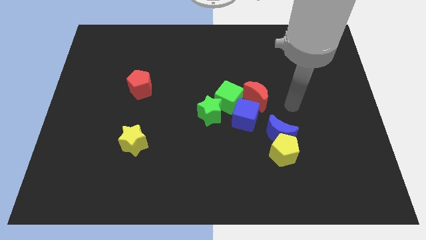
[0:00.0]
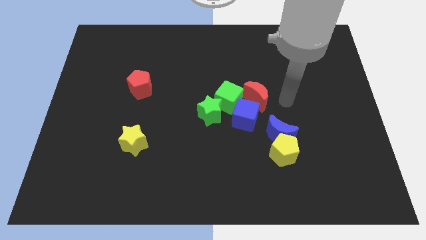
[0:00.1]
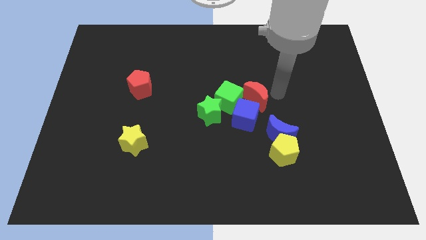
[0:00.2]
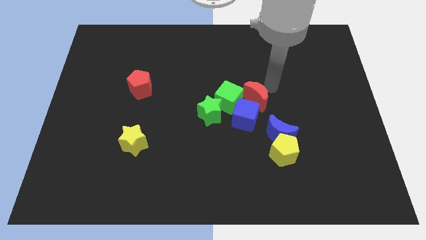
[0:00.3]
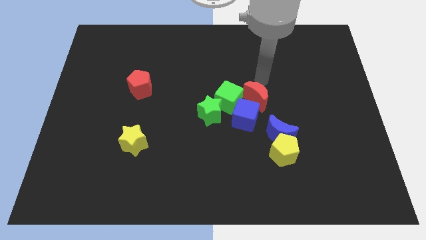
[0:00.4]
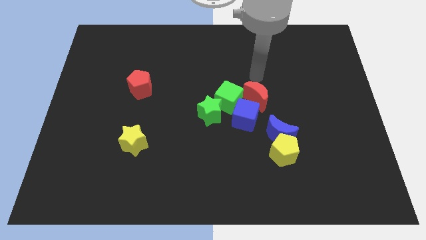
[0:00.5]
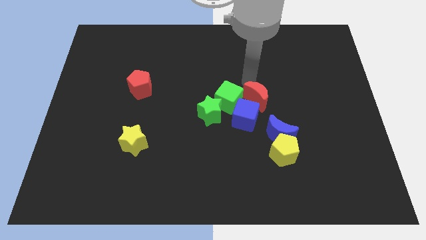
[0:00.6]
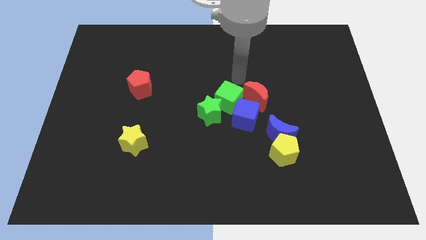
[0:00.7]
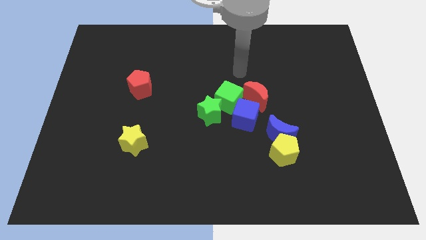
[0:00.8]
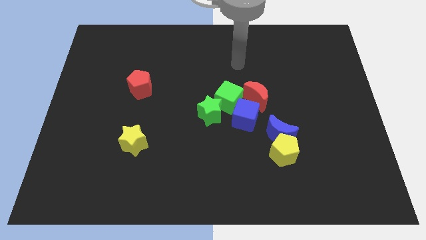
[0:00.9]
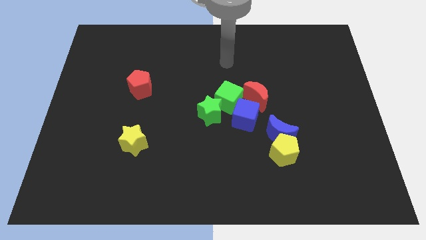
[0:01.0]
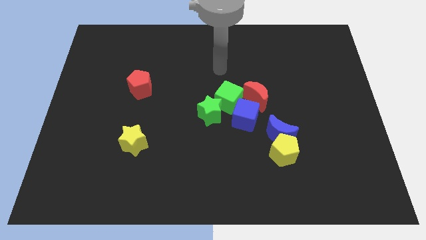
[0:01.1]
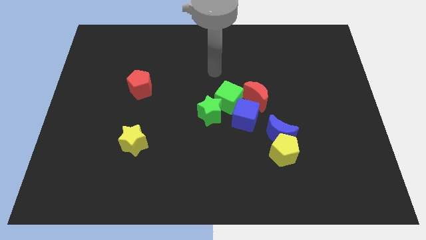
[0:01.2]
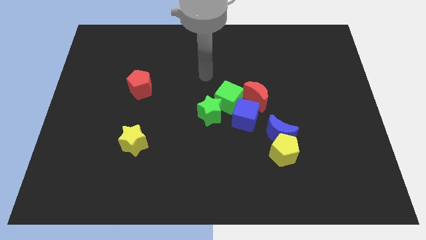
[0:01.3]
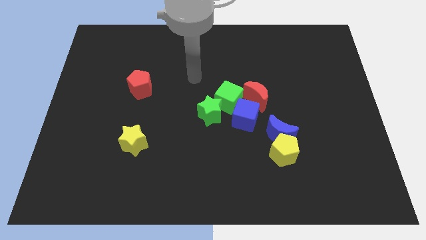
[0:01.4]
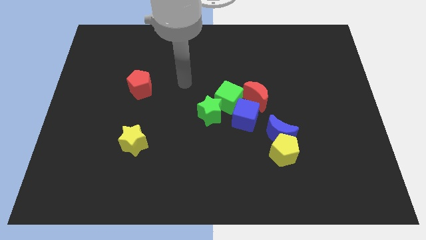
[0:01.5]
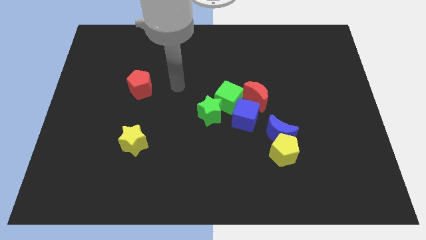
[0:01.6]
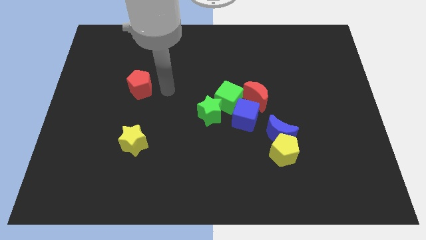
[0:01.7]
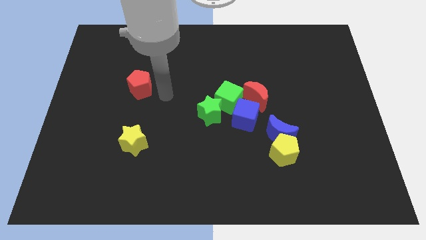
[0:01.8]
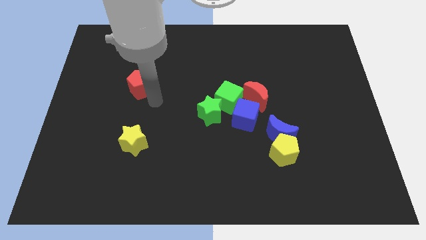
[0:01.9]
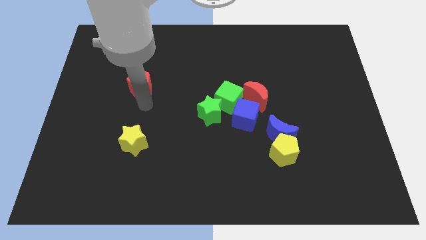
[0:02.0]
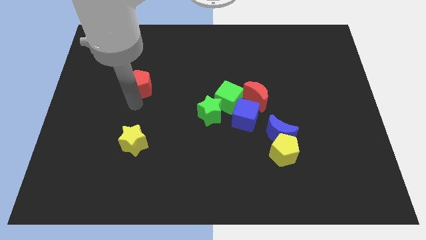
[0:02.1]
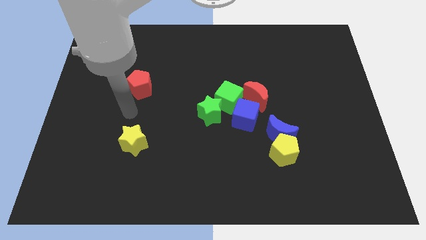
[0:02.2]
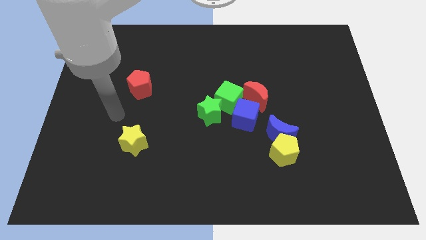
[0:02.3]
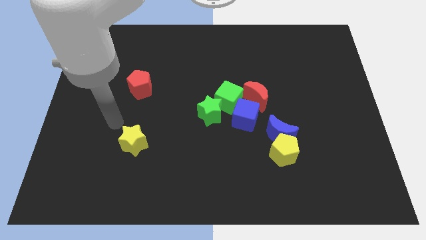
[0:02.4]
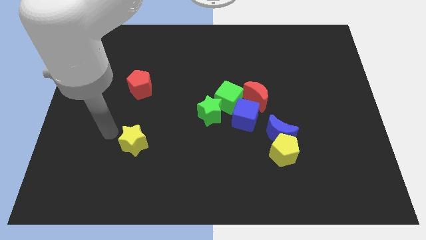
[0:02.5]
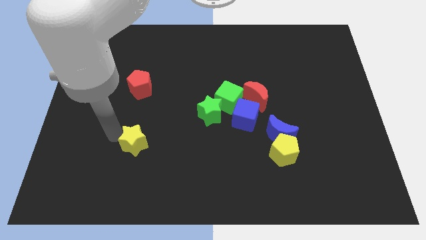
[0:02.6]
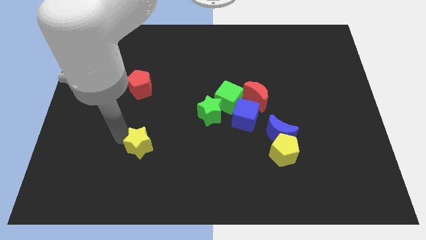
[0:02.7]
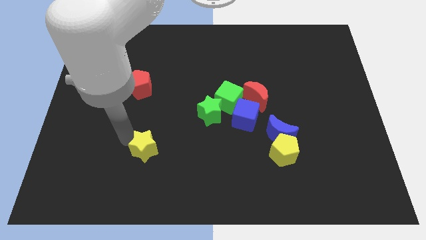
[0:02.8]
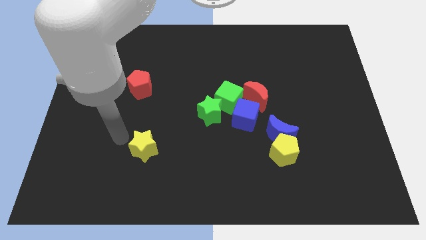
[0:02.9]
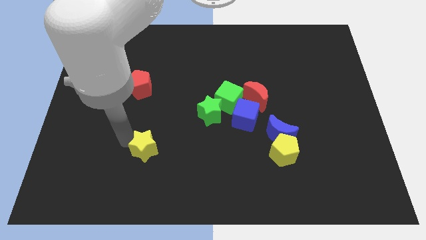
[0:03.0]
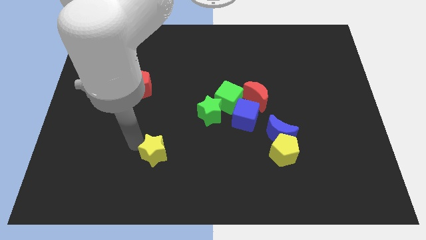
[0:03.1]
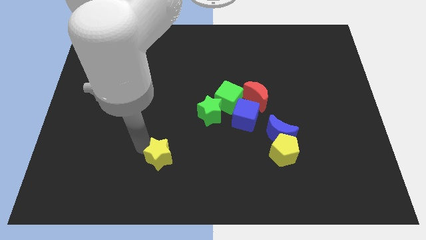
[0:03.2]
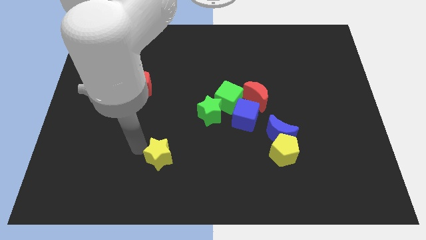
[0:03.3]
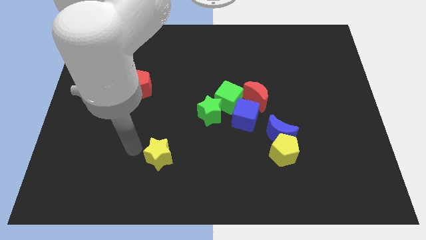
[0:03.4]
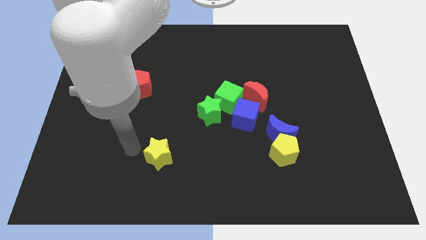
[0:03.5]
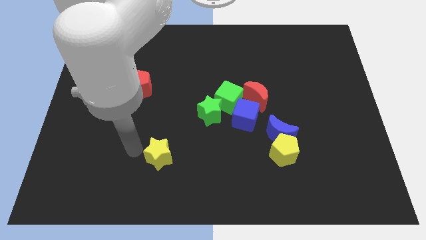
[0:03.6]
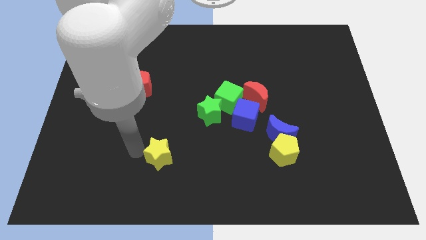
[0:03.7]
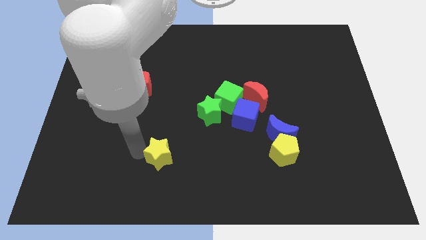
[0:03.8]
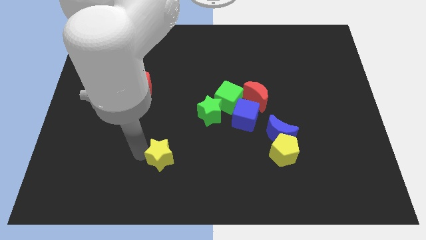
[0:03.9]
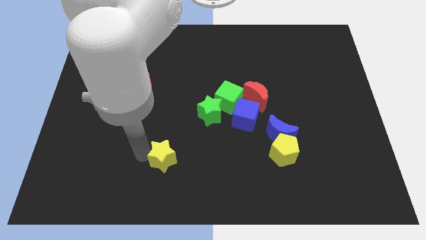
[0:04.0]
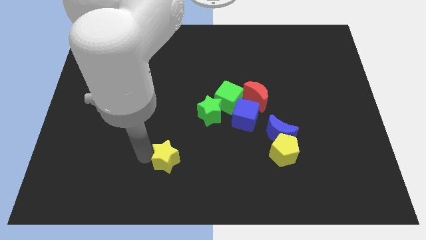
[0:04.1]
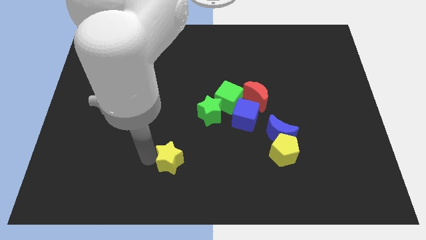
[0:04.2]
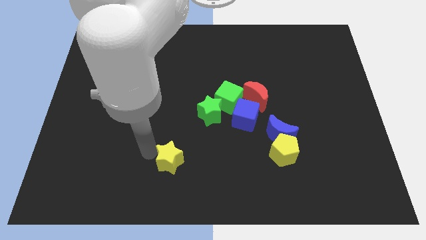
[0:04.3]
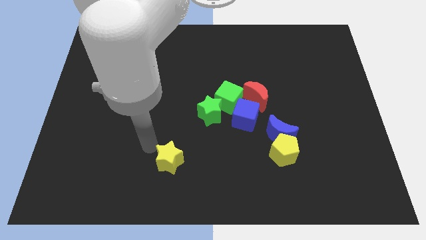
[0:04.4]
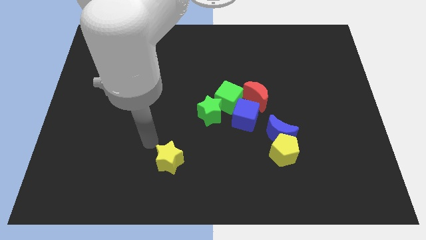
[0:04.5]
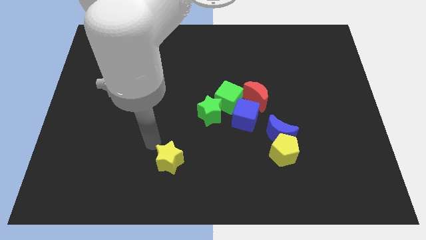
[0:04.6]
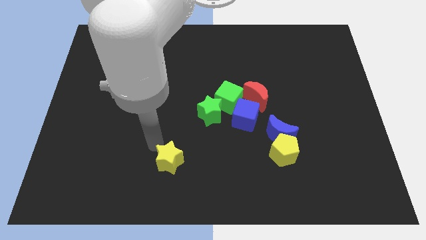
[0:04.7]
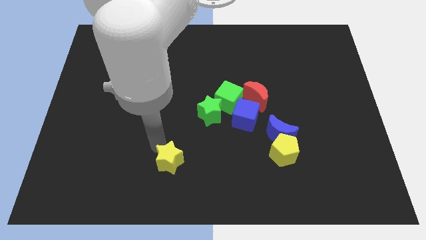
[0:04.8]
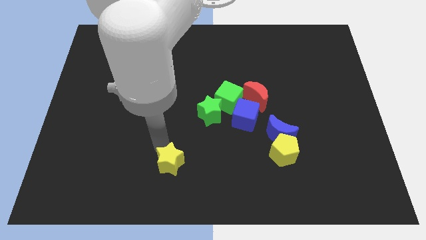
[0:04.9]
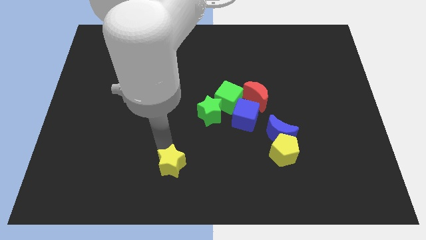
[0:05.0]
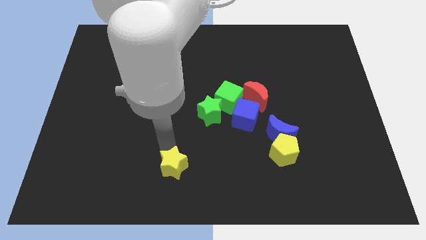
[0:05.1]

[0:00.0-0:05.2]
move the yellow star to the bottom

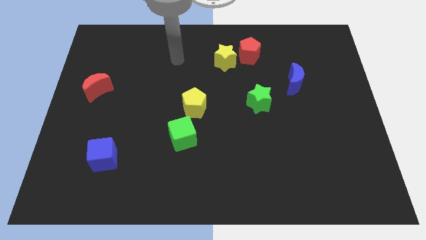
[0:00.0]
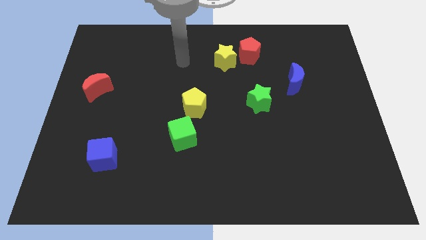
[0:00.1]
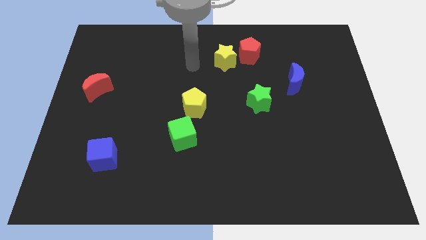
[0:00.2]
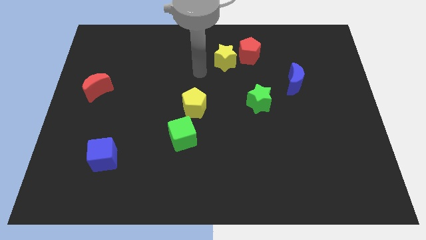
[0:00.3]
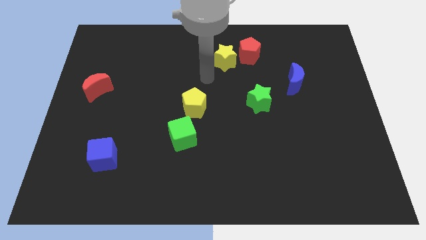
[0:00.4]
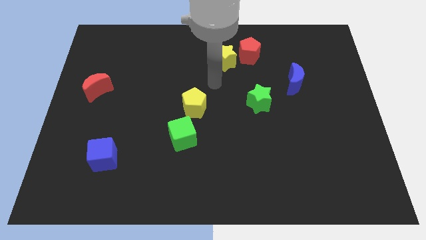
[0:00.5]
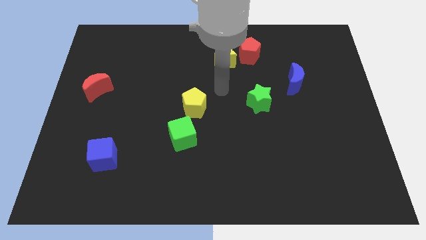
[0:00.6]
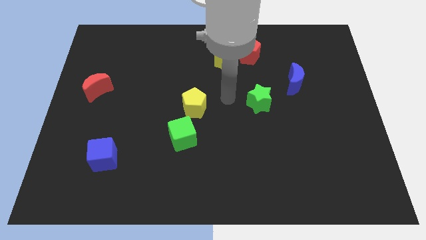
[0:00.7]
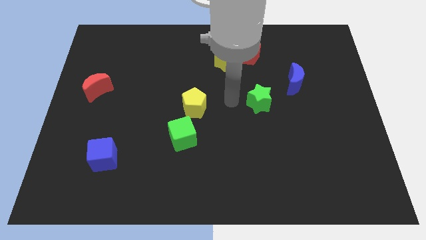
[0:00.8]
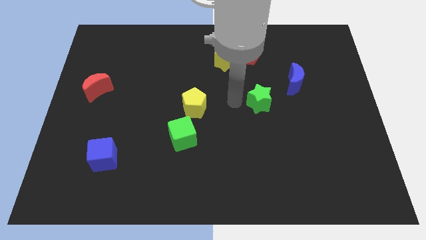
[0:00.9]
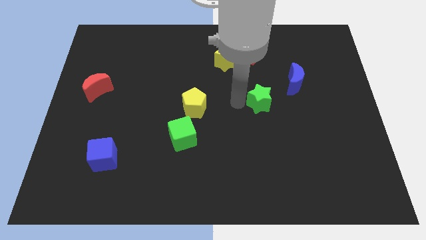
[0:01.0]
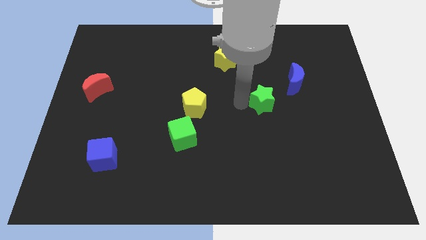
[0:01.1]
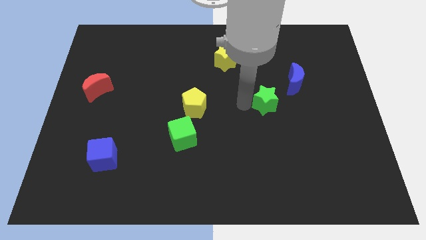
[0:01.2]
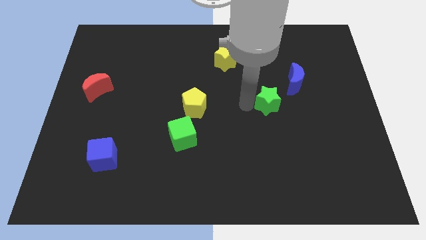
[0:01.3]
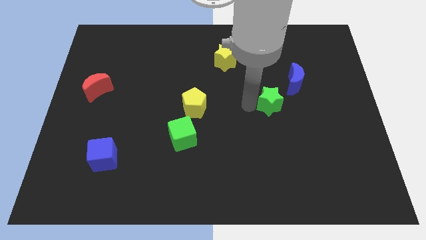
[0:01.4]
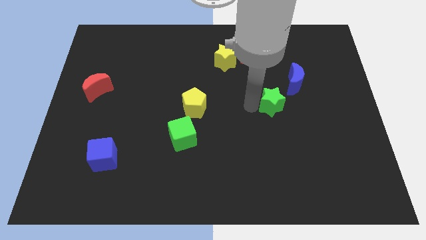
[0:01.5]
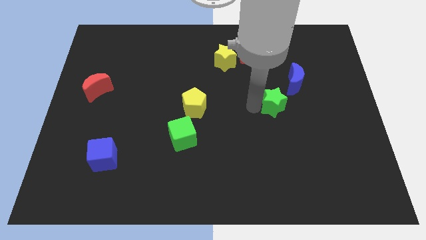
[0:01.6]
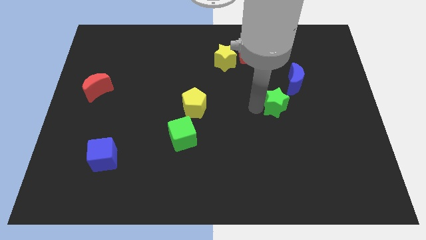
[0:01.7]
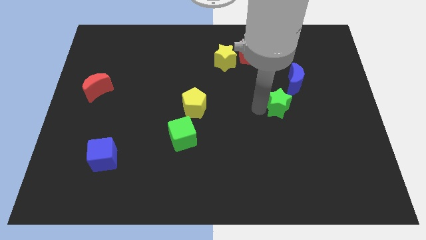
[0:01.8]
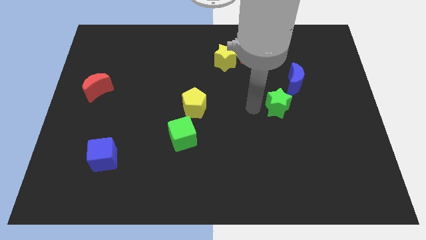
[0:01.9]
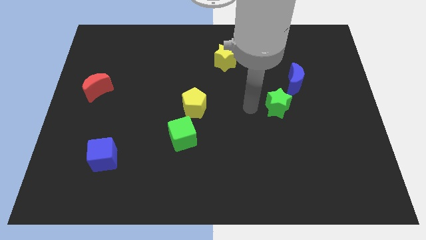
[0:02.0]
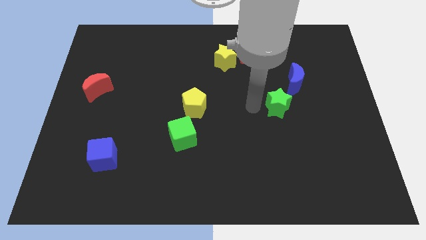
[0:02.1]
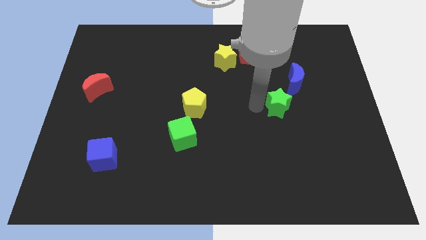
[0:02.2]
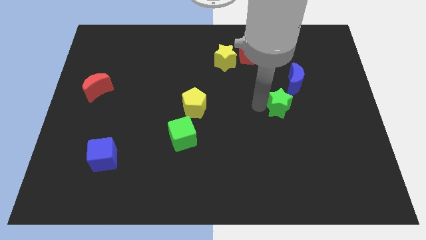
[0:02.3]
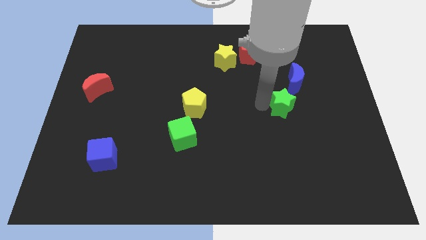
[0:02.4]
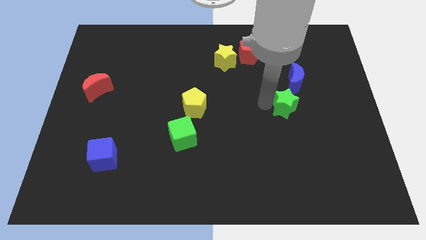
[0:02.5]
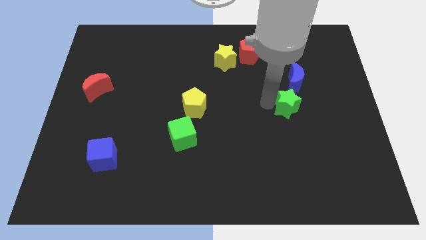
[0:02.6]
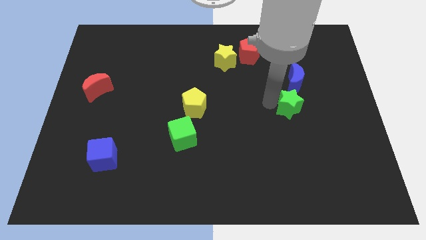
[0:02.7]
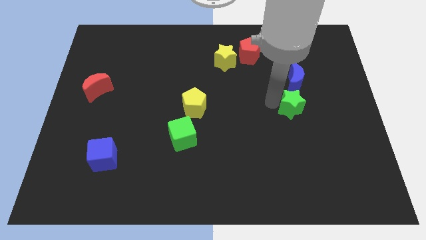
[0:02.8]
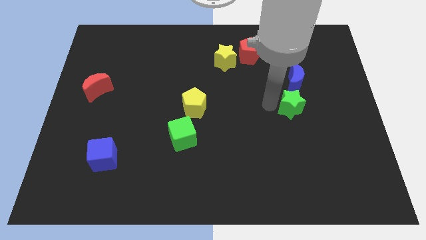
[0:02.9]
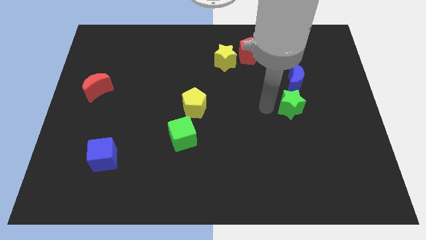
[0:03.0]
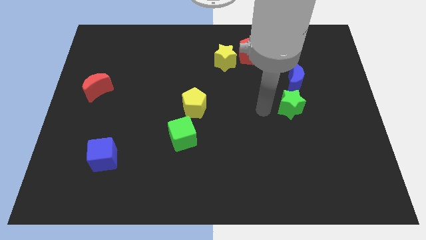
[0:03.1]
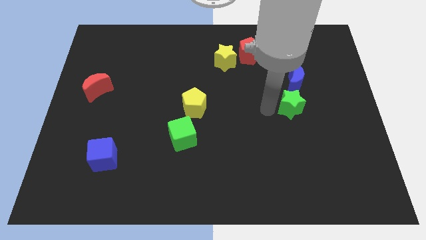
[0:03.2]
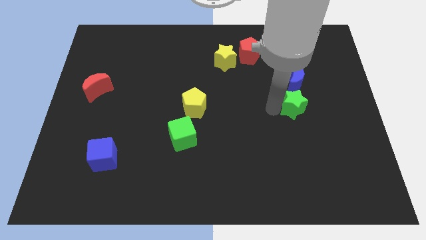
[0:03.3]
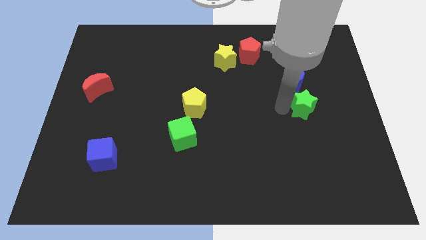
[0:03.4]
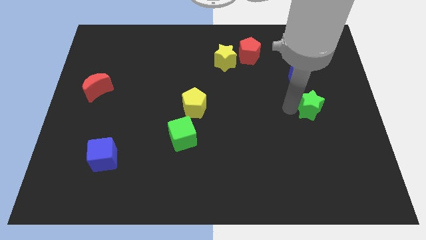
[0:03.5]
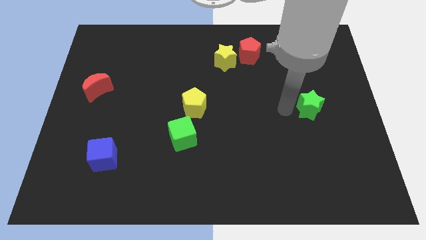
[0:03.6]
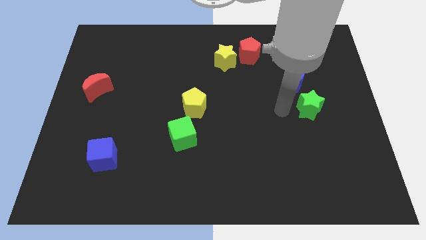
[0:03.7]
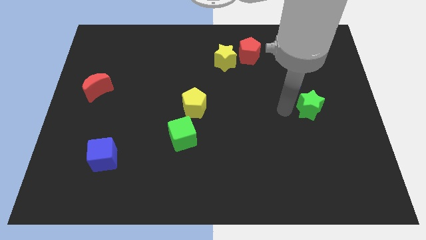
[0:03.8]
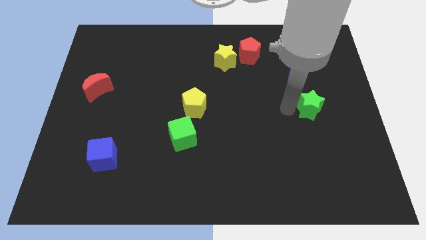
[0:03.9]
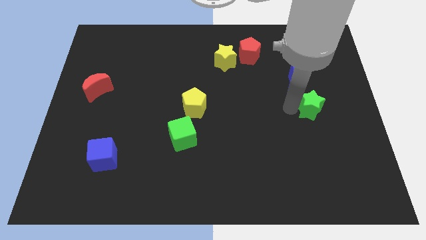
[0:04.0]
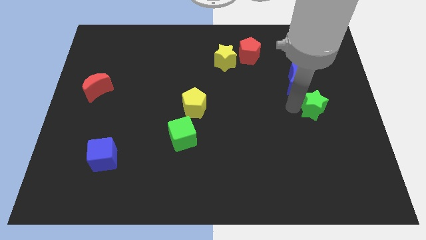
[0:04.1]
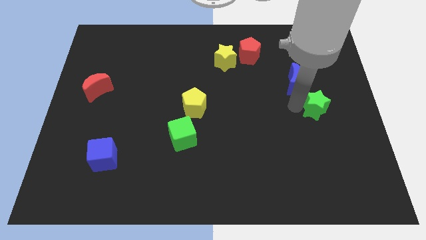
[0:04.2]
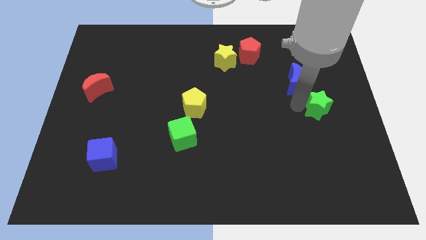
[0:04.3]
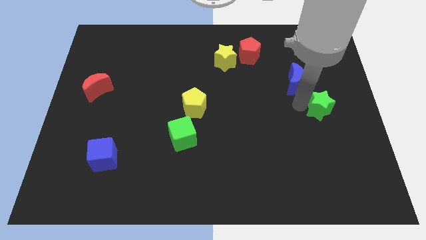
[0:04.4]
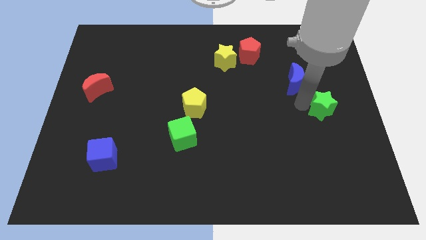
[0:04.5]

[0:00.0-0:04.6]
slide the green star to the right side
